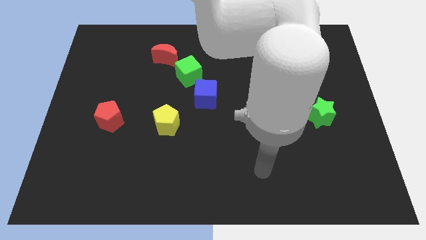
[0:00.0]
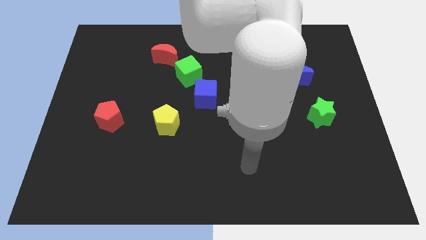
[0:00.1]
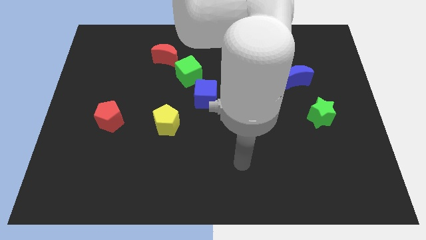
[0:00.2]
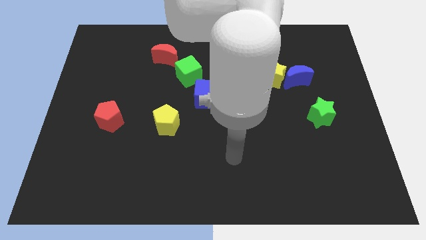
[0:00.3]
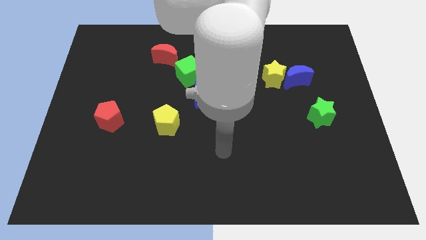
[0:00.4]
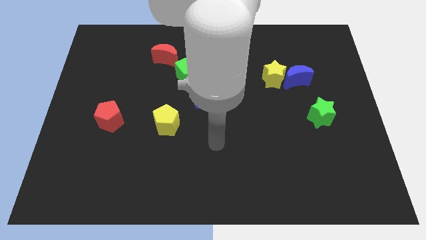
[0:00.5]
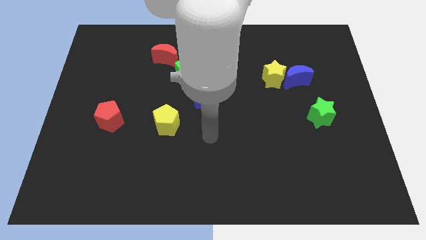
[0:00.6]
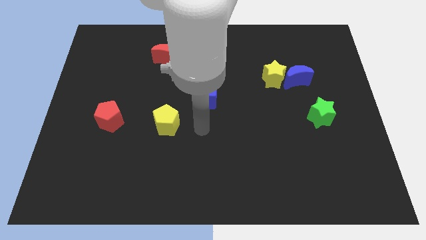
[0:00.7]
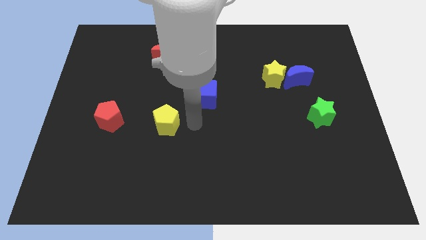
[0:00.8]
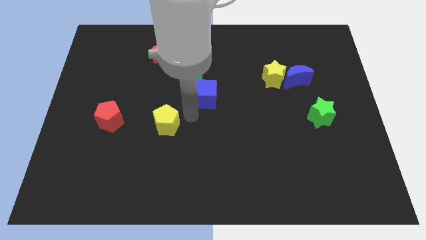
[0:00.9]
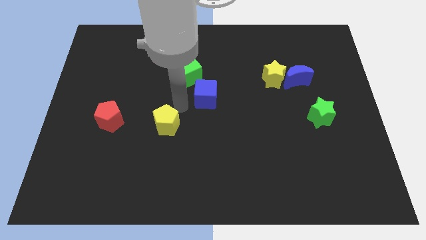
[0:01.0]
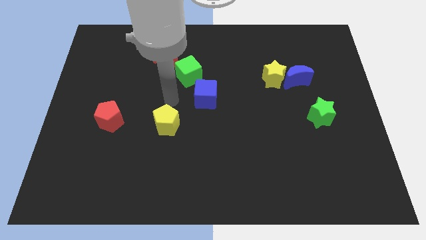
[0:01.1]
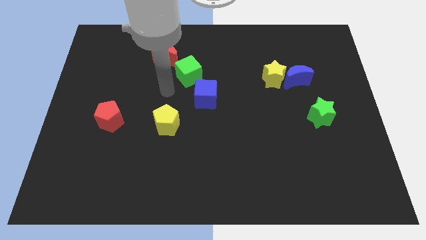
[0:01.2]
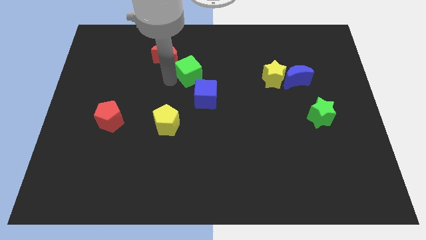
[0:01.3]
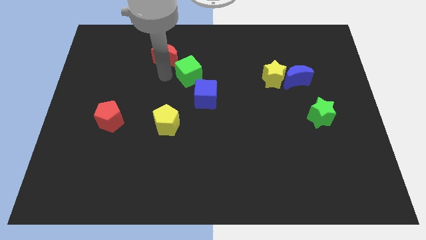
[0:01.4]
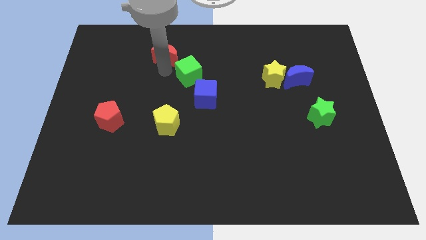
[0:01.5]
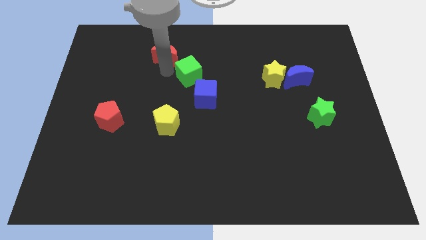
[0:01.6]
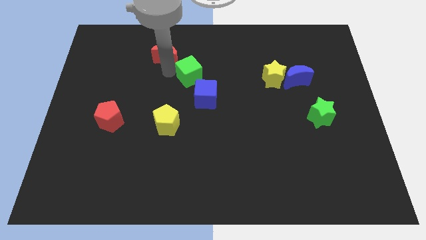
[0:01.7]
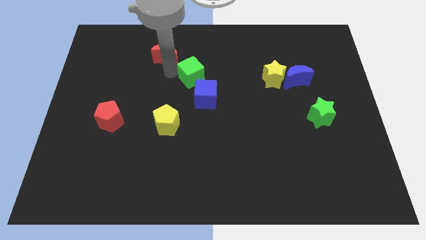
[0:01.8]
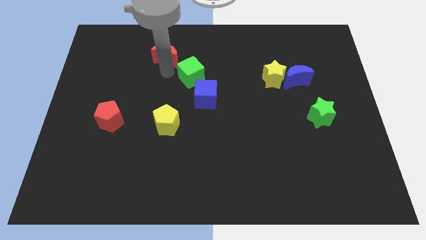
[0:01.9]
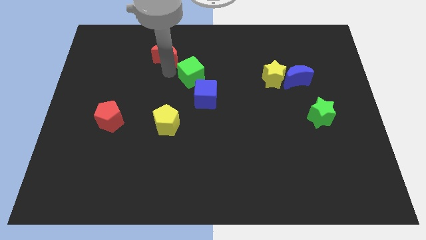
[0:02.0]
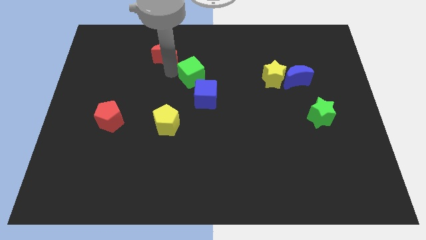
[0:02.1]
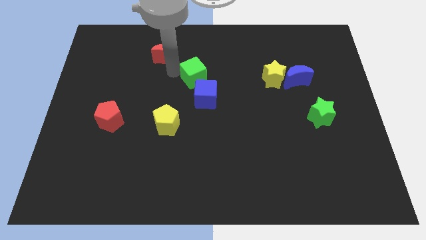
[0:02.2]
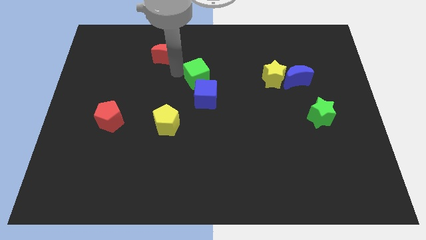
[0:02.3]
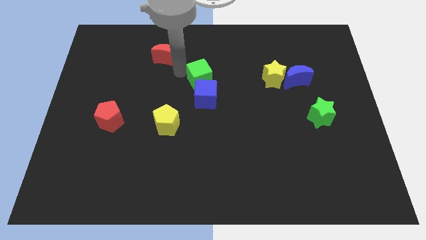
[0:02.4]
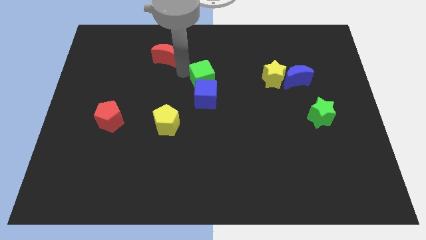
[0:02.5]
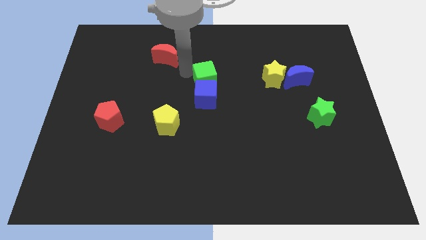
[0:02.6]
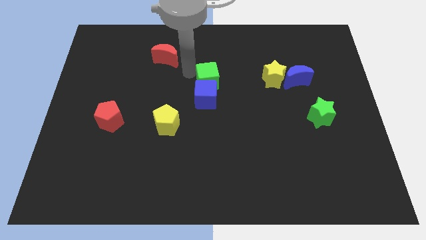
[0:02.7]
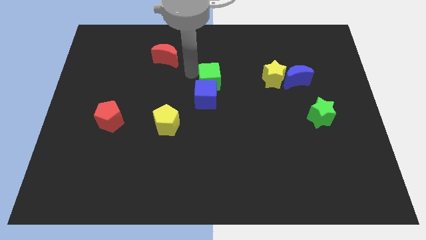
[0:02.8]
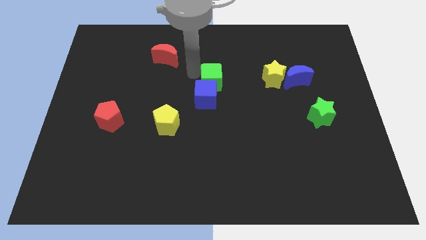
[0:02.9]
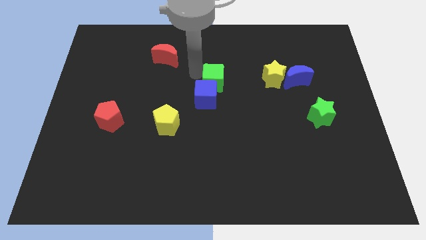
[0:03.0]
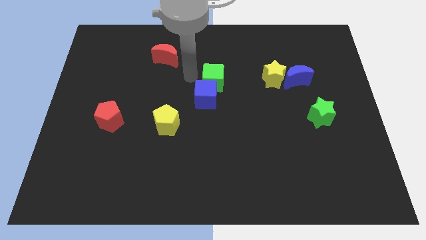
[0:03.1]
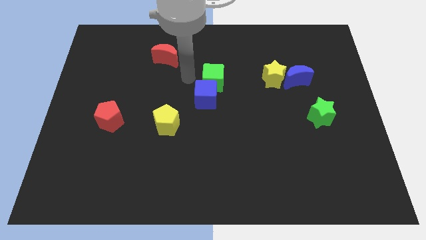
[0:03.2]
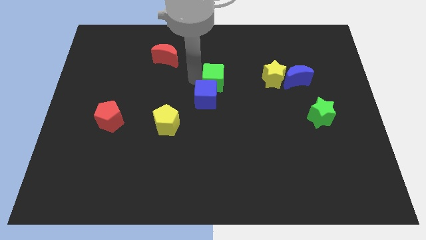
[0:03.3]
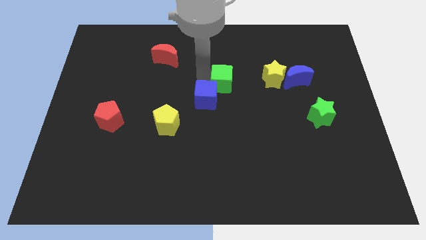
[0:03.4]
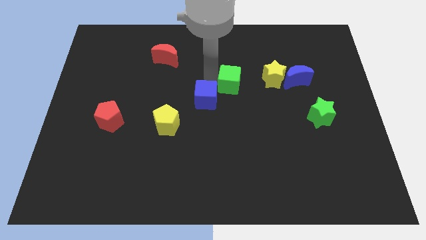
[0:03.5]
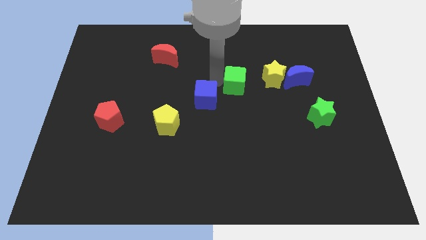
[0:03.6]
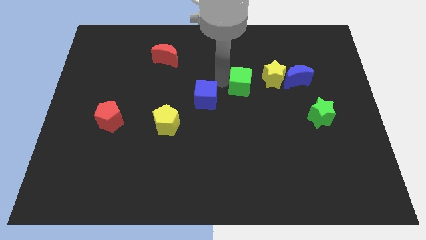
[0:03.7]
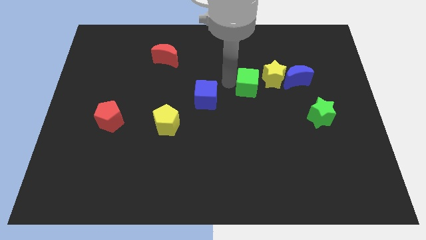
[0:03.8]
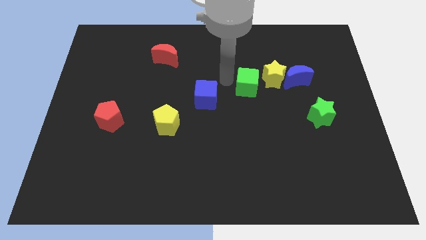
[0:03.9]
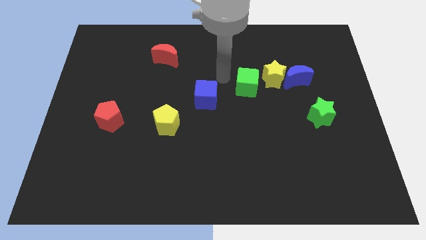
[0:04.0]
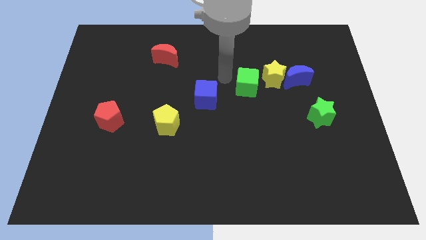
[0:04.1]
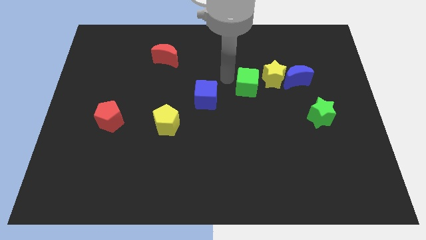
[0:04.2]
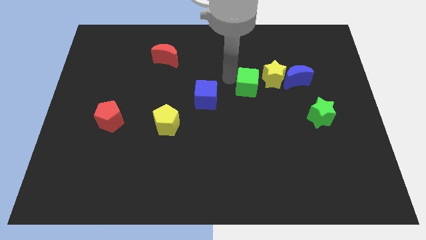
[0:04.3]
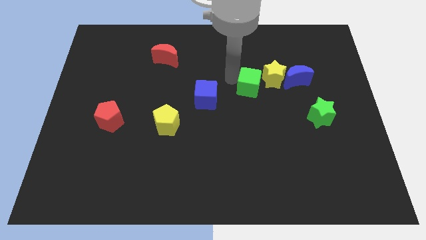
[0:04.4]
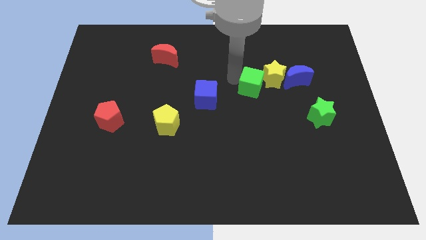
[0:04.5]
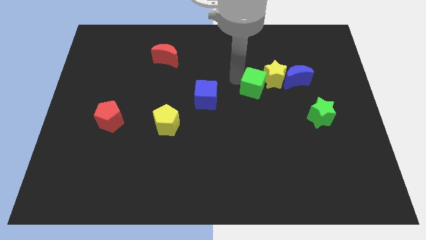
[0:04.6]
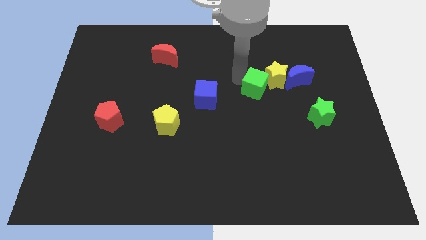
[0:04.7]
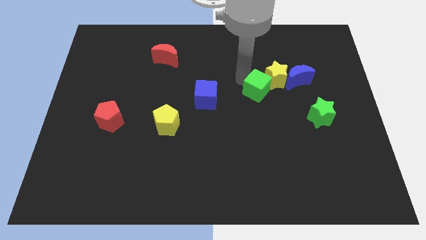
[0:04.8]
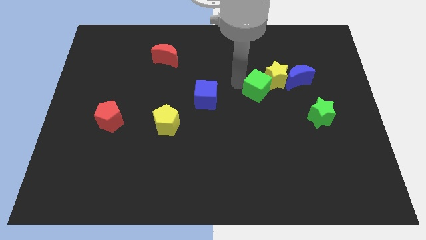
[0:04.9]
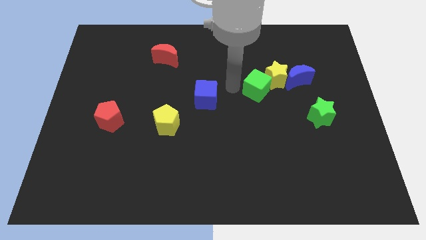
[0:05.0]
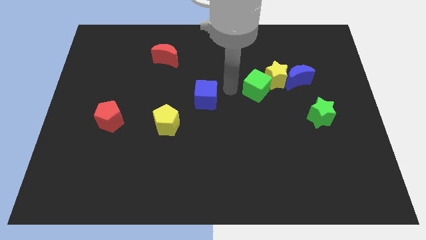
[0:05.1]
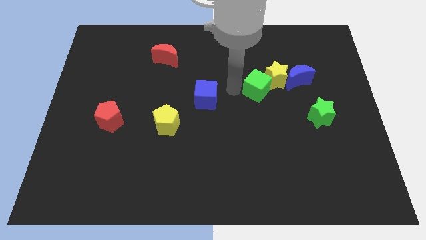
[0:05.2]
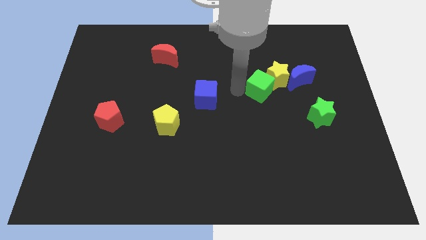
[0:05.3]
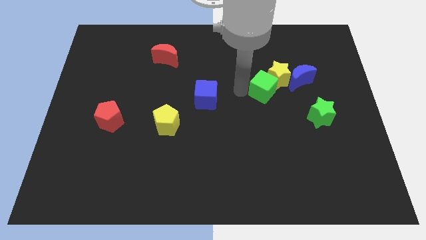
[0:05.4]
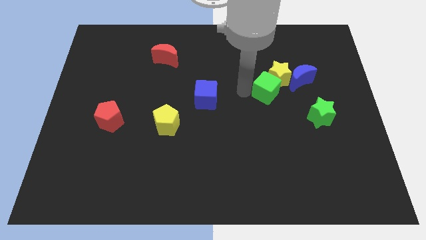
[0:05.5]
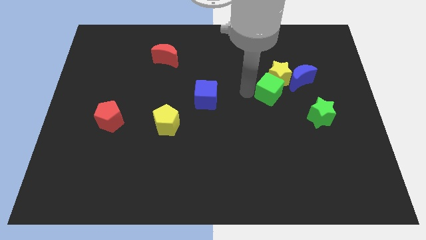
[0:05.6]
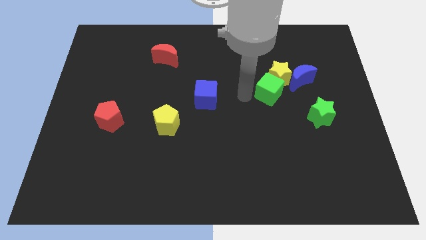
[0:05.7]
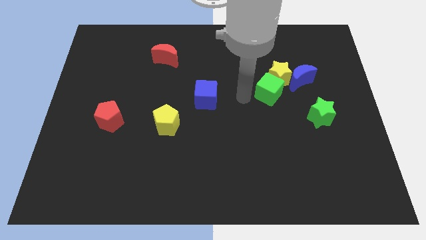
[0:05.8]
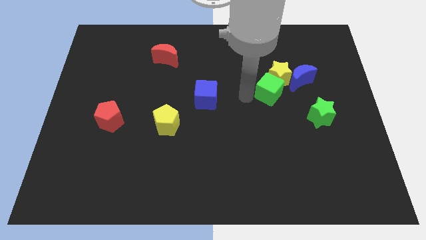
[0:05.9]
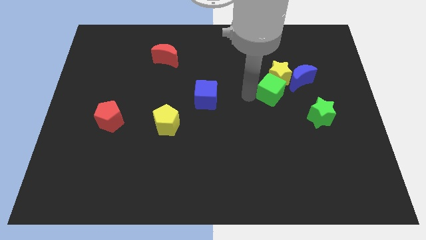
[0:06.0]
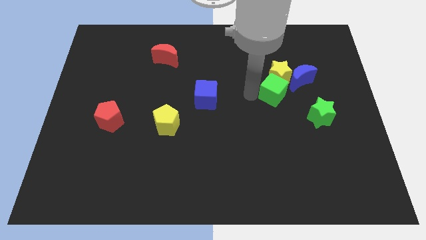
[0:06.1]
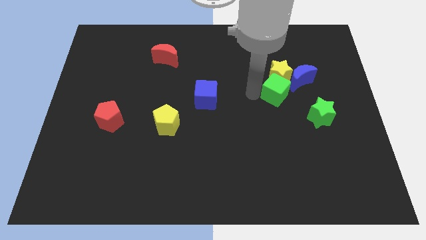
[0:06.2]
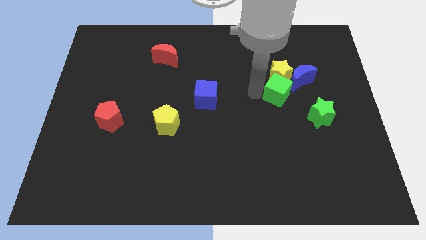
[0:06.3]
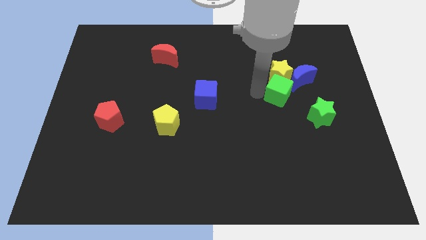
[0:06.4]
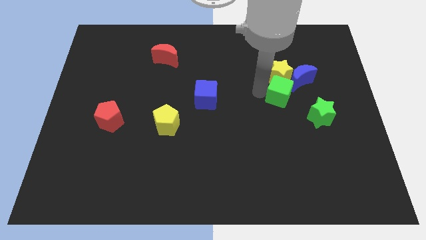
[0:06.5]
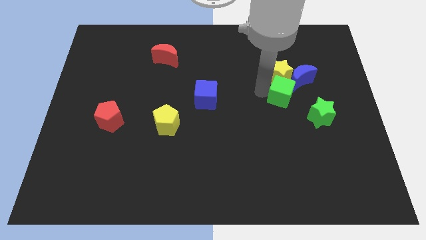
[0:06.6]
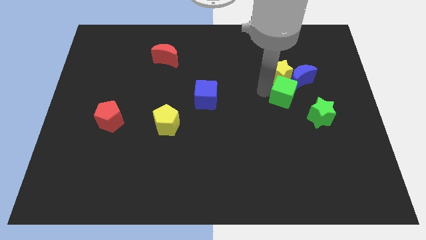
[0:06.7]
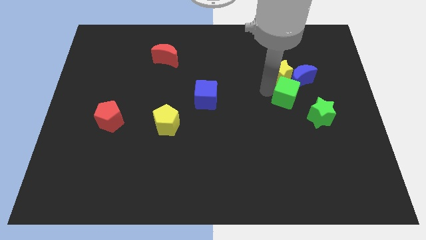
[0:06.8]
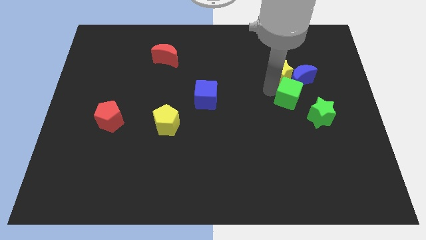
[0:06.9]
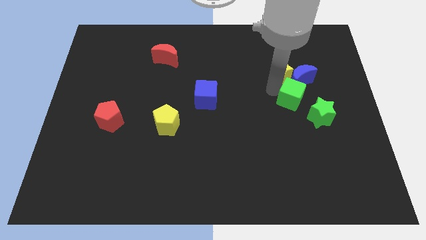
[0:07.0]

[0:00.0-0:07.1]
move the green cube towards the blue moon
